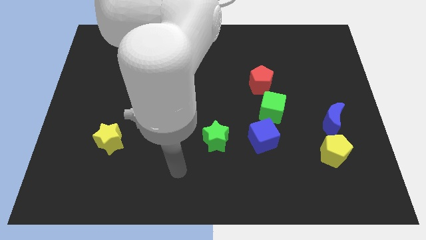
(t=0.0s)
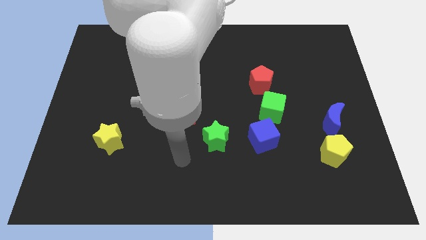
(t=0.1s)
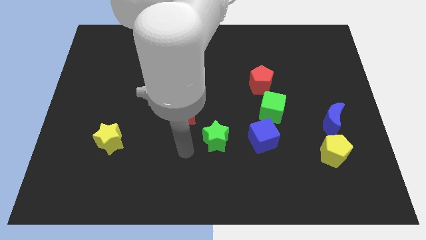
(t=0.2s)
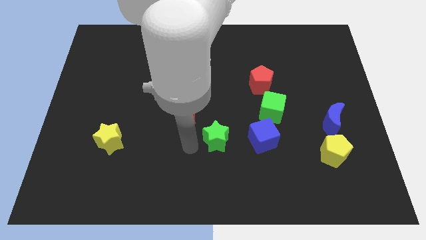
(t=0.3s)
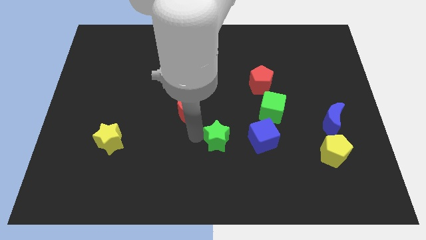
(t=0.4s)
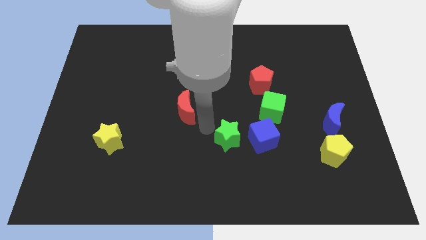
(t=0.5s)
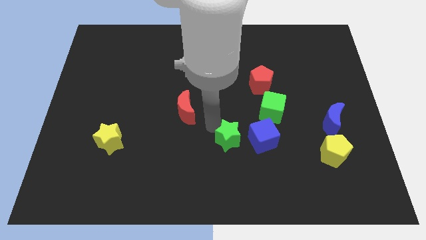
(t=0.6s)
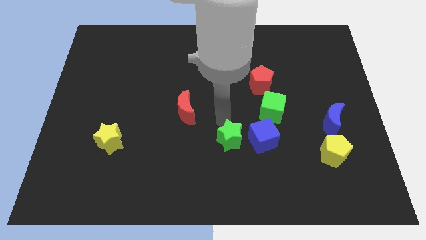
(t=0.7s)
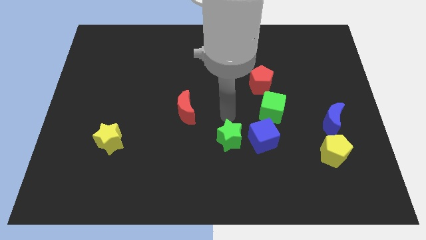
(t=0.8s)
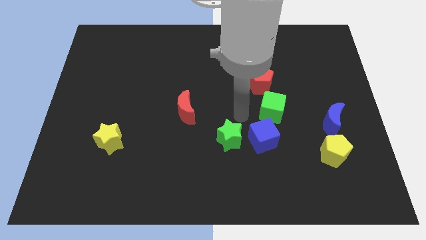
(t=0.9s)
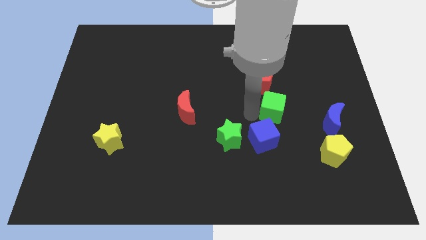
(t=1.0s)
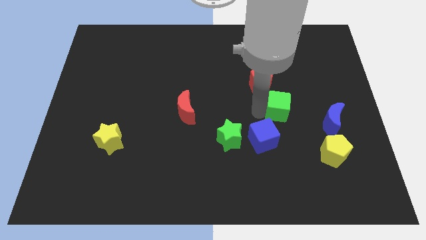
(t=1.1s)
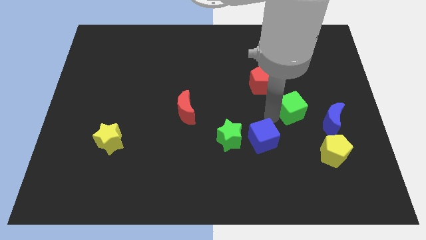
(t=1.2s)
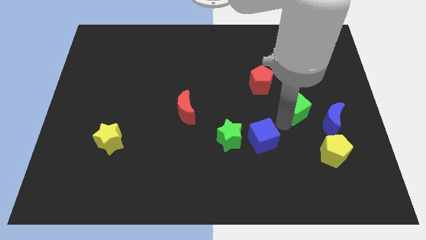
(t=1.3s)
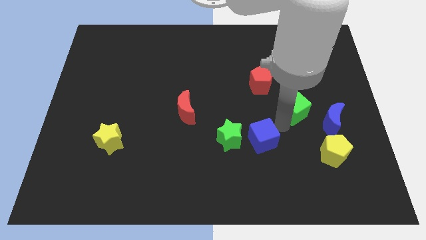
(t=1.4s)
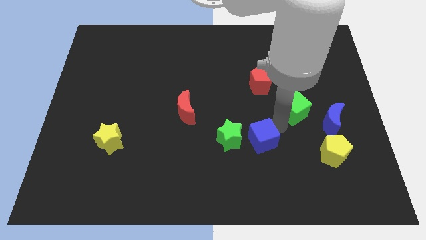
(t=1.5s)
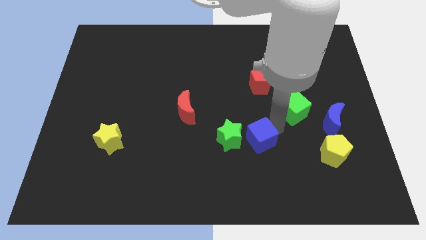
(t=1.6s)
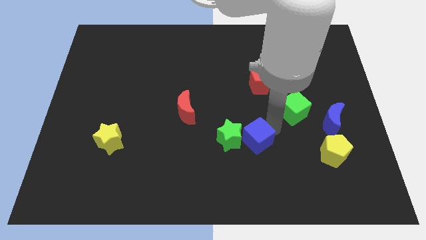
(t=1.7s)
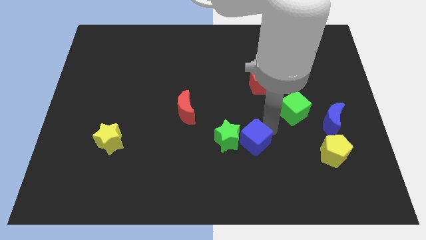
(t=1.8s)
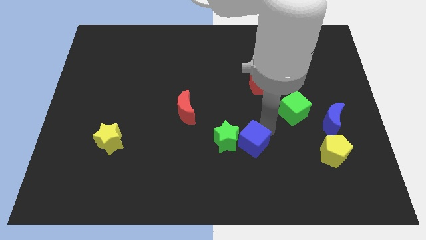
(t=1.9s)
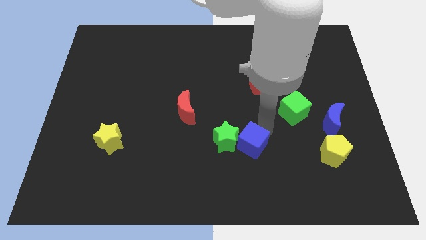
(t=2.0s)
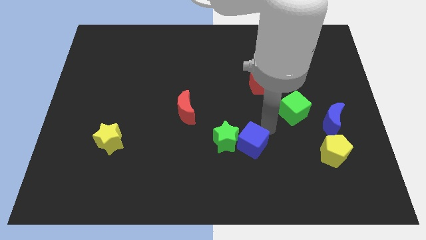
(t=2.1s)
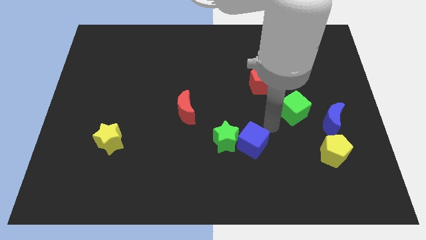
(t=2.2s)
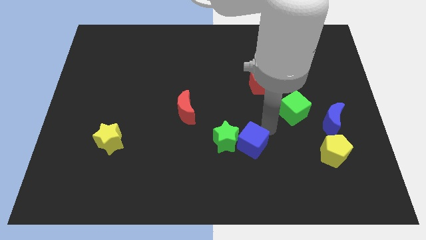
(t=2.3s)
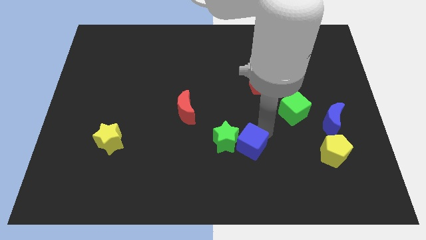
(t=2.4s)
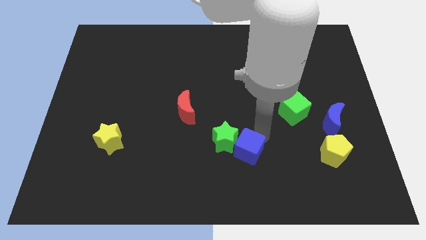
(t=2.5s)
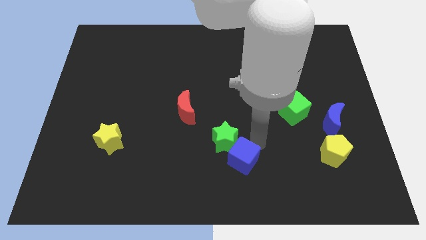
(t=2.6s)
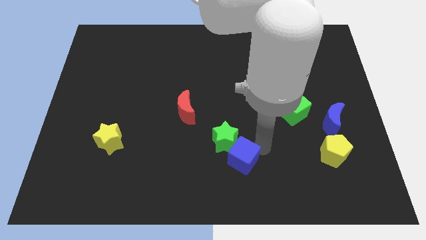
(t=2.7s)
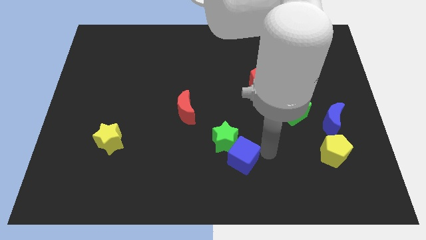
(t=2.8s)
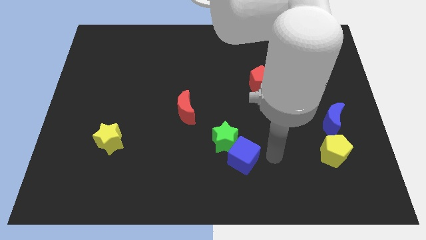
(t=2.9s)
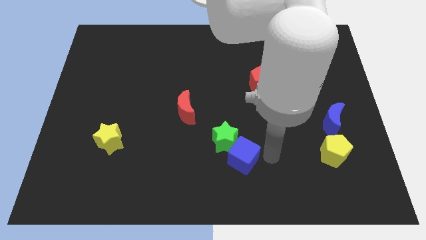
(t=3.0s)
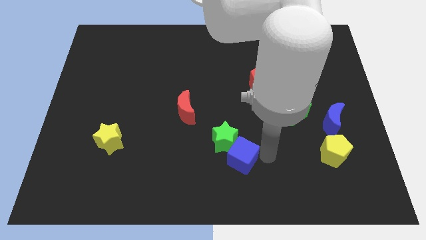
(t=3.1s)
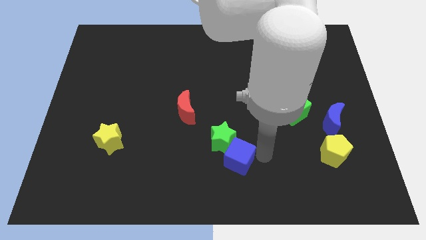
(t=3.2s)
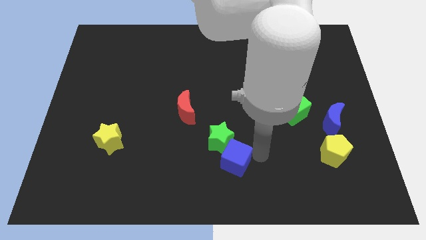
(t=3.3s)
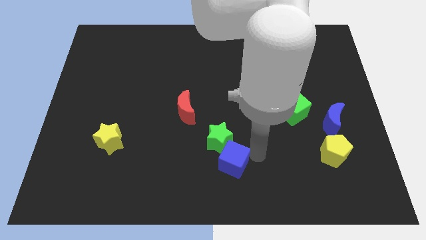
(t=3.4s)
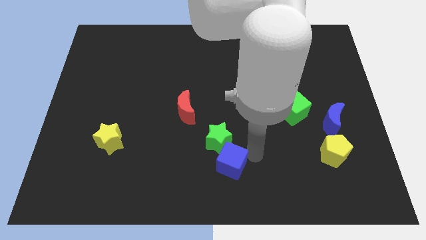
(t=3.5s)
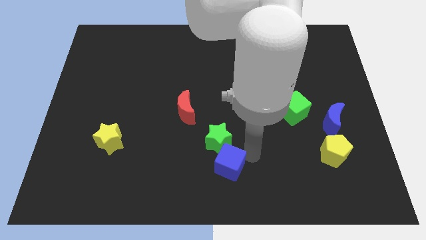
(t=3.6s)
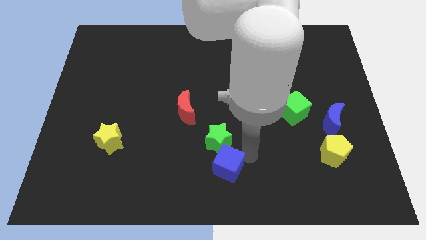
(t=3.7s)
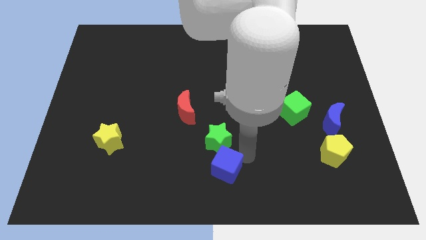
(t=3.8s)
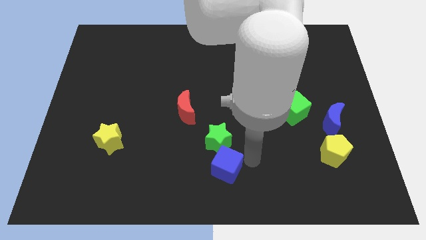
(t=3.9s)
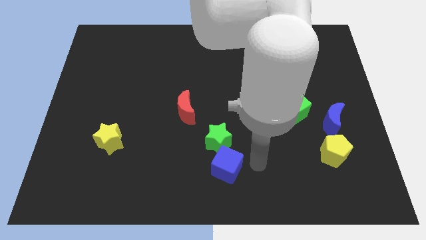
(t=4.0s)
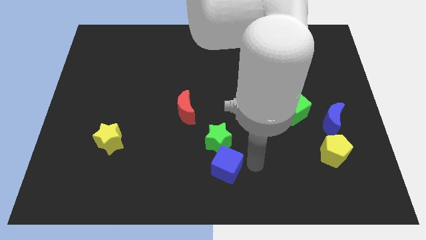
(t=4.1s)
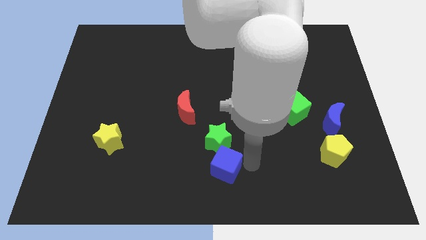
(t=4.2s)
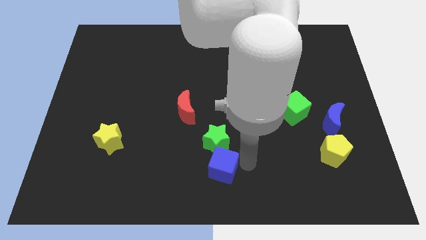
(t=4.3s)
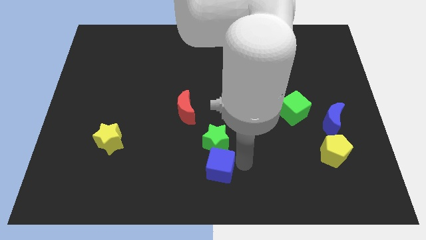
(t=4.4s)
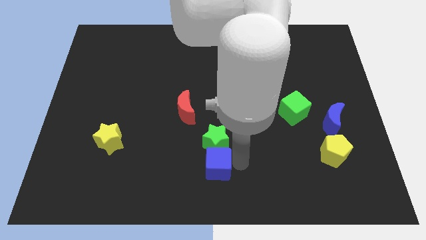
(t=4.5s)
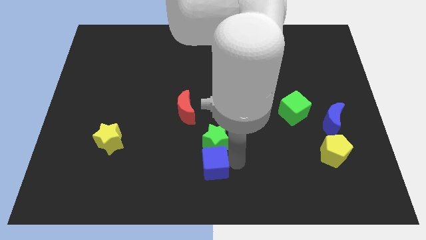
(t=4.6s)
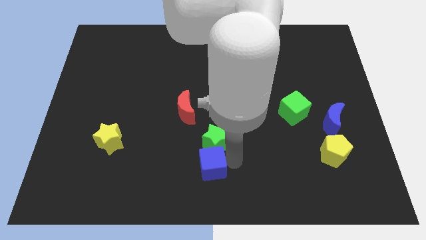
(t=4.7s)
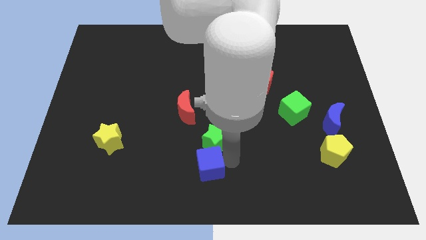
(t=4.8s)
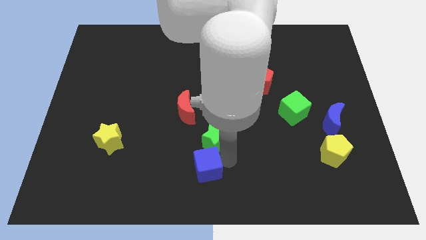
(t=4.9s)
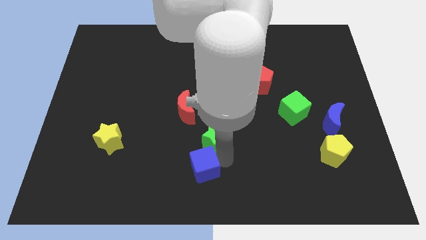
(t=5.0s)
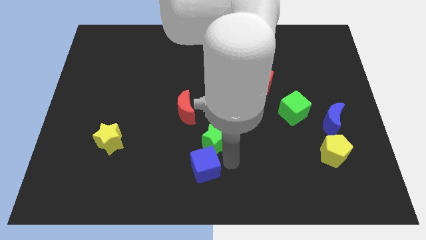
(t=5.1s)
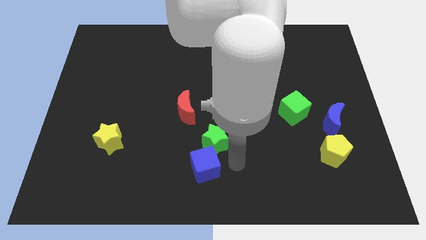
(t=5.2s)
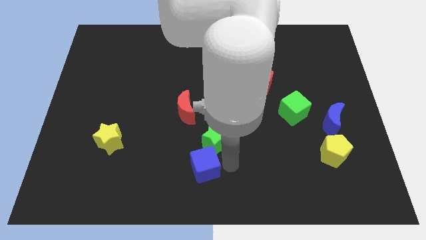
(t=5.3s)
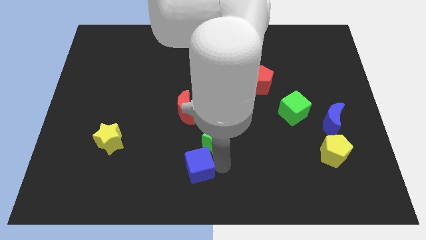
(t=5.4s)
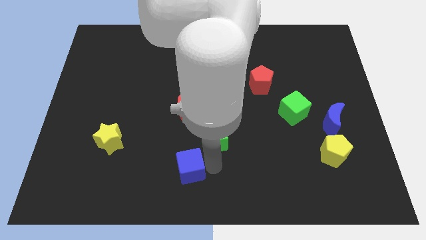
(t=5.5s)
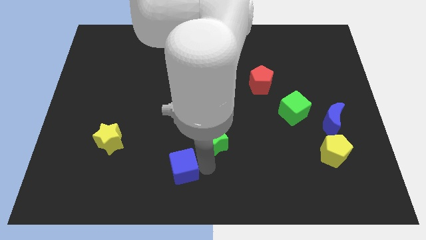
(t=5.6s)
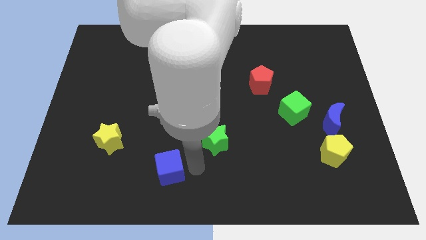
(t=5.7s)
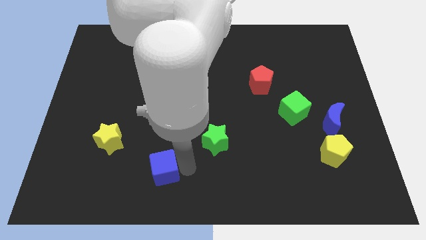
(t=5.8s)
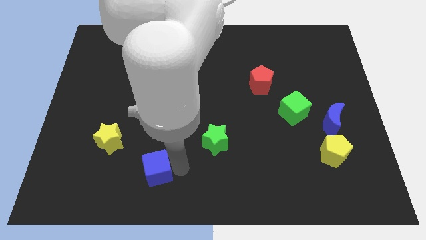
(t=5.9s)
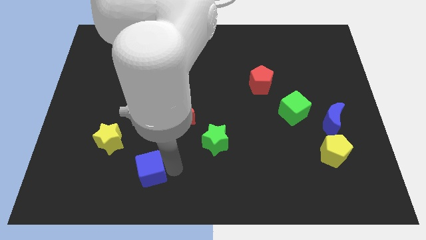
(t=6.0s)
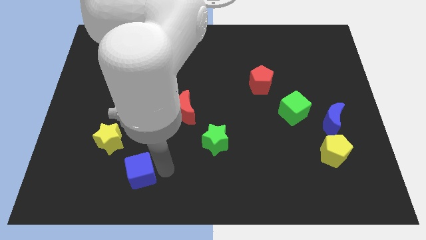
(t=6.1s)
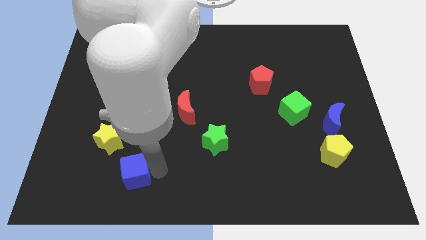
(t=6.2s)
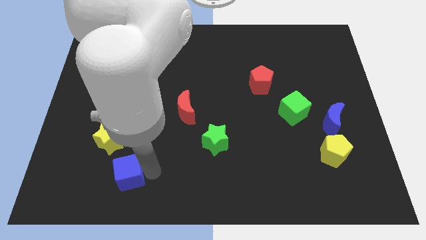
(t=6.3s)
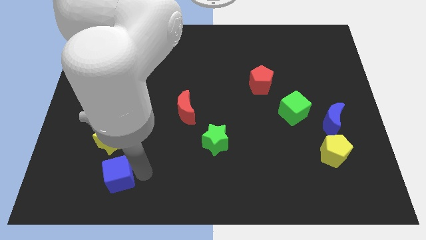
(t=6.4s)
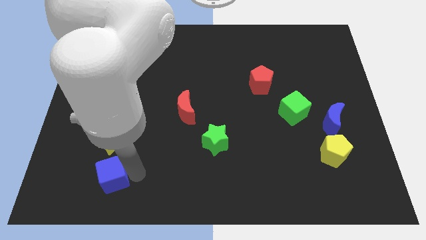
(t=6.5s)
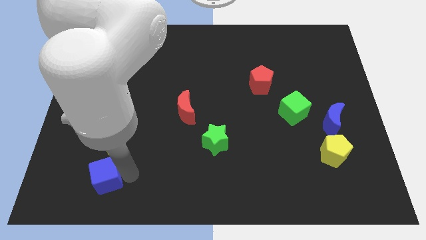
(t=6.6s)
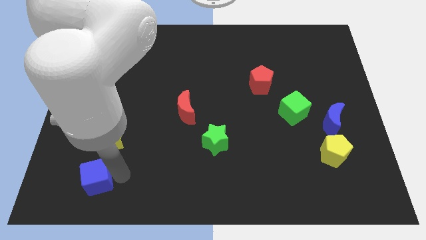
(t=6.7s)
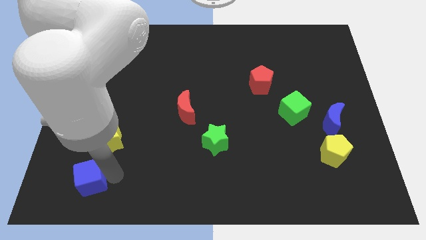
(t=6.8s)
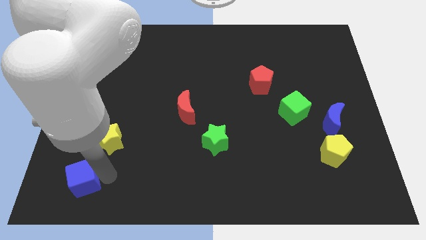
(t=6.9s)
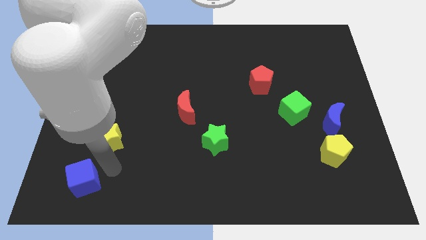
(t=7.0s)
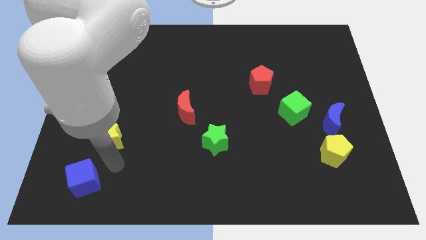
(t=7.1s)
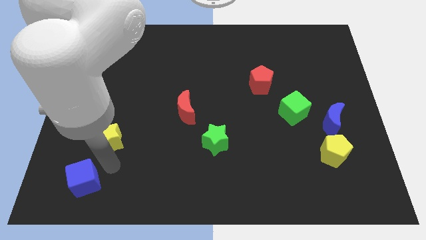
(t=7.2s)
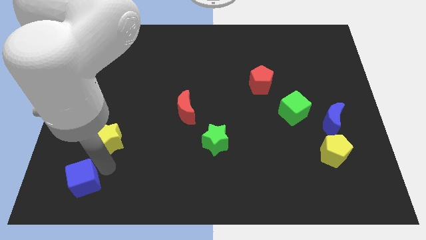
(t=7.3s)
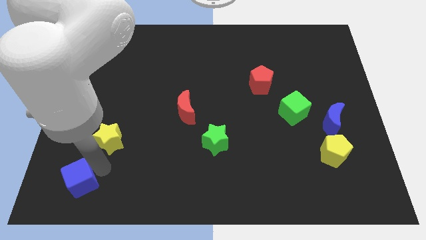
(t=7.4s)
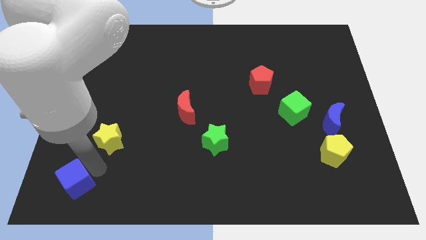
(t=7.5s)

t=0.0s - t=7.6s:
put the blue cube to the bottom left of the board
